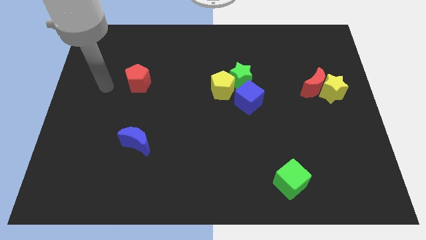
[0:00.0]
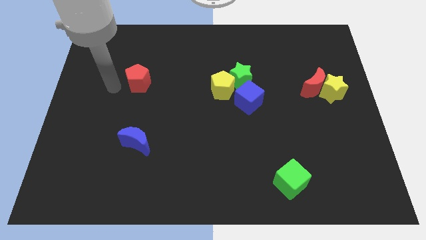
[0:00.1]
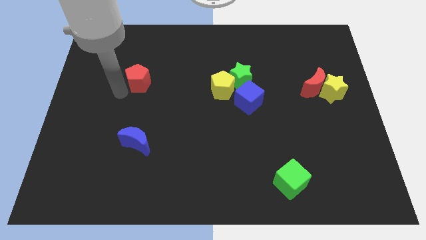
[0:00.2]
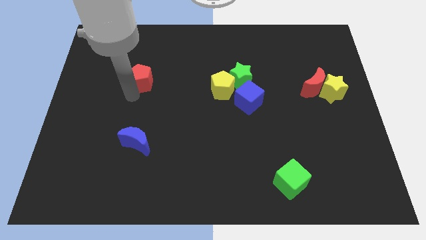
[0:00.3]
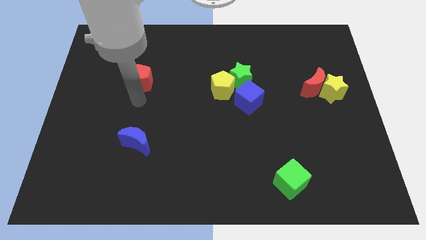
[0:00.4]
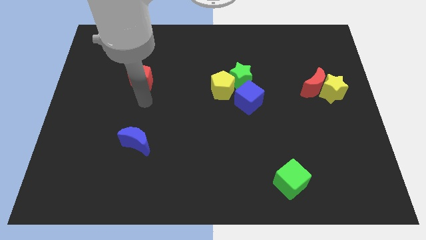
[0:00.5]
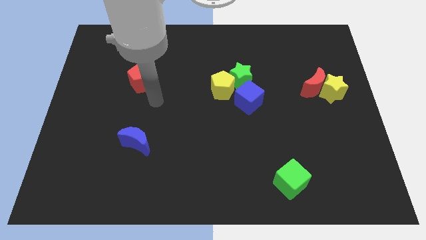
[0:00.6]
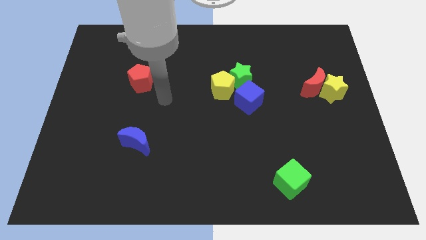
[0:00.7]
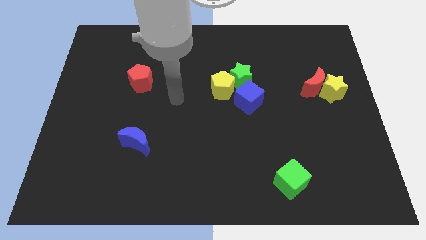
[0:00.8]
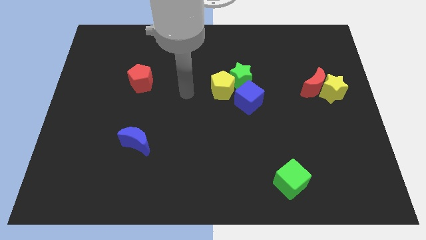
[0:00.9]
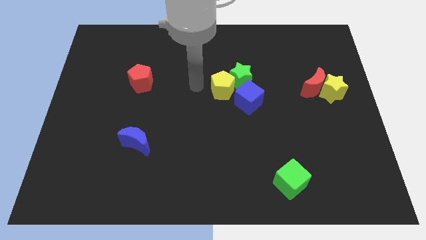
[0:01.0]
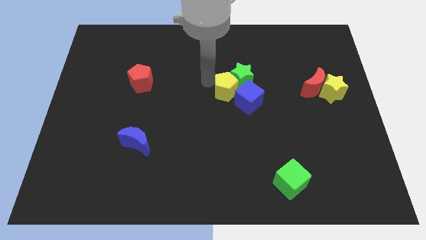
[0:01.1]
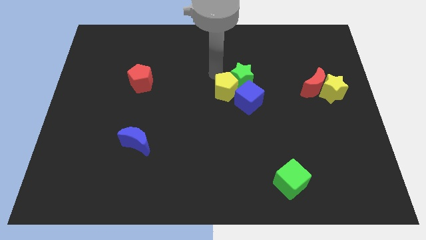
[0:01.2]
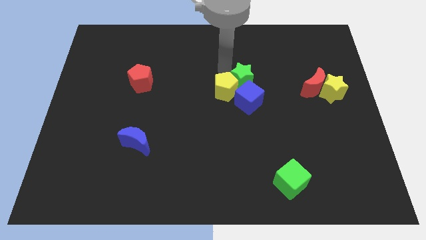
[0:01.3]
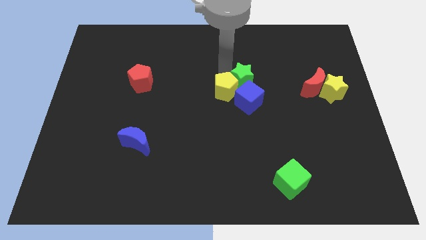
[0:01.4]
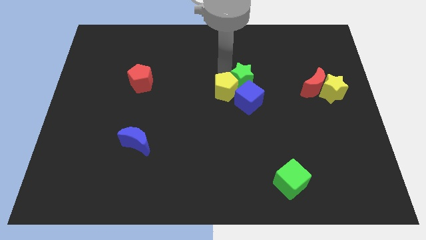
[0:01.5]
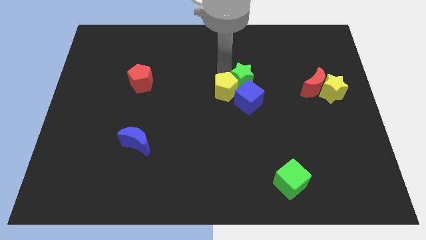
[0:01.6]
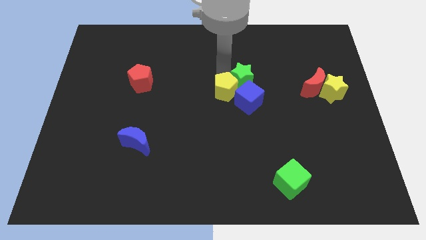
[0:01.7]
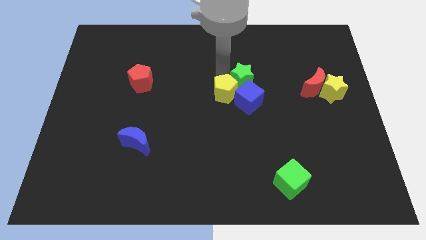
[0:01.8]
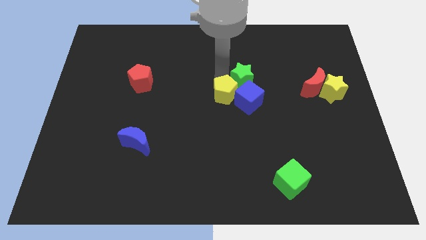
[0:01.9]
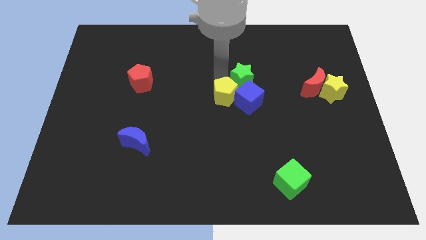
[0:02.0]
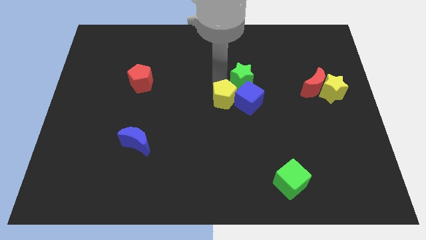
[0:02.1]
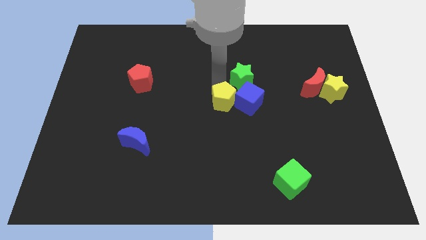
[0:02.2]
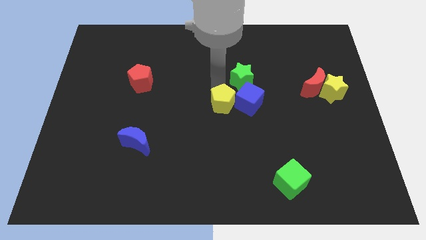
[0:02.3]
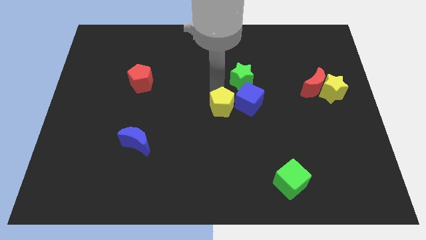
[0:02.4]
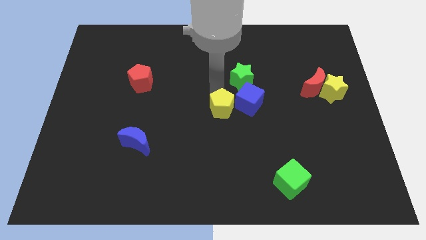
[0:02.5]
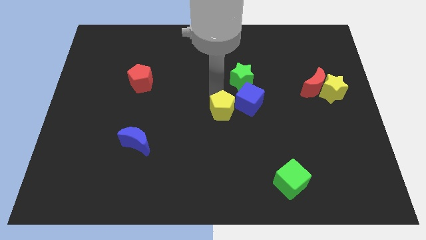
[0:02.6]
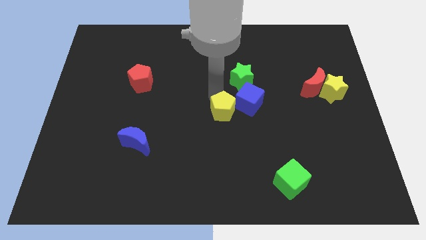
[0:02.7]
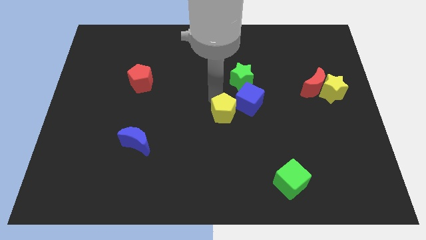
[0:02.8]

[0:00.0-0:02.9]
move the yellow pentagon a little downwards

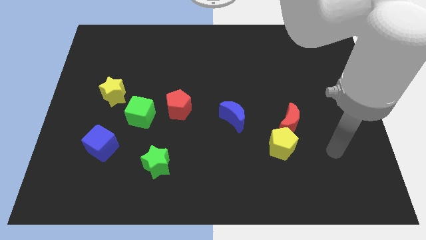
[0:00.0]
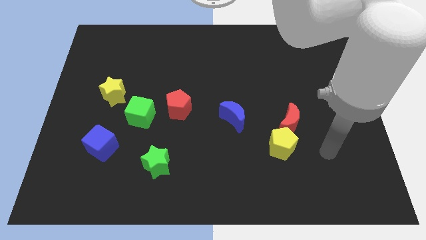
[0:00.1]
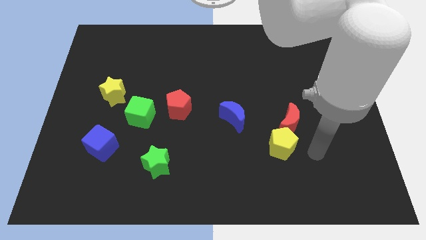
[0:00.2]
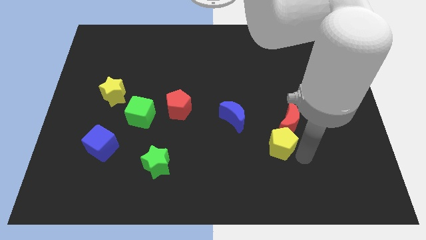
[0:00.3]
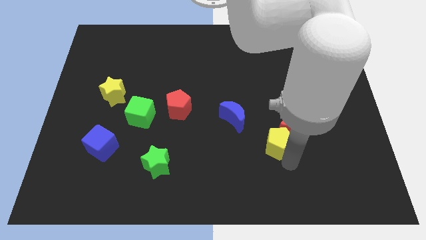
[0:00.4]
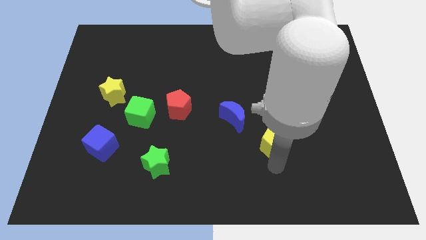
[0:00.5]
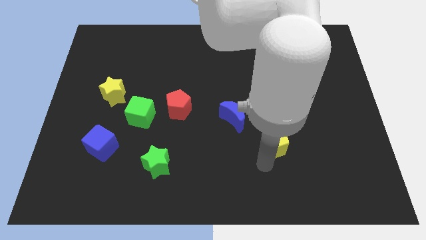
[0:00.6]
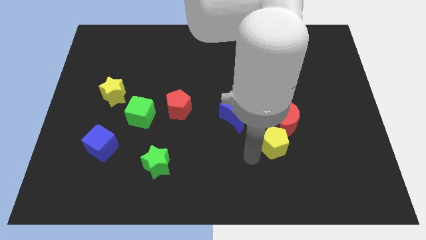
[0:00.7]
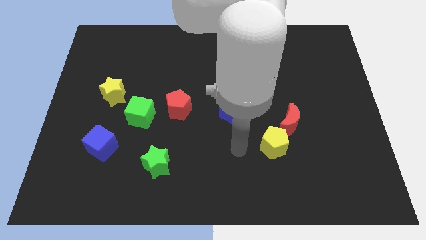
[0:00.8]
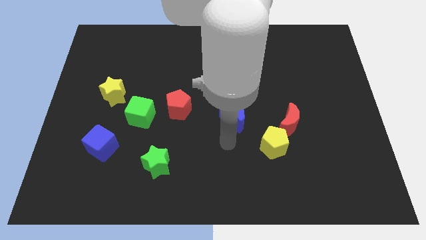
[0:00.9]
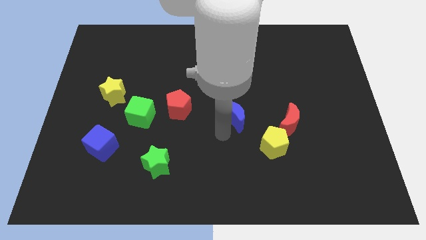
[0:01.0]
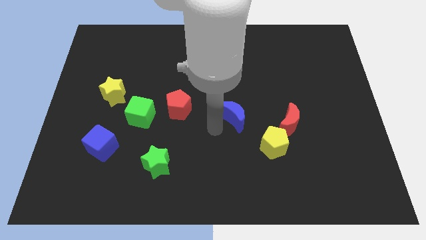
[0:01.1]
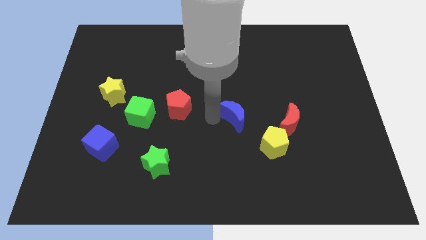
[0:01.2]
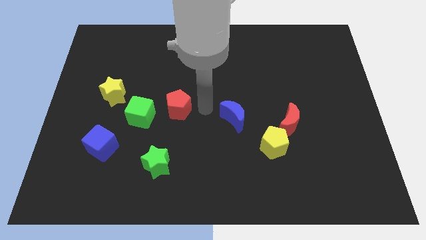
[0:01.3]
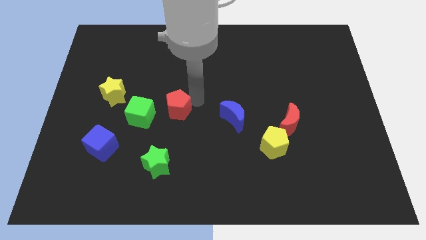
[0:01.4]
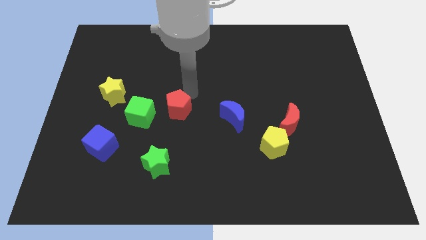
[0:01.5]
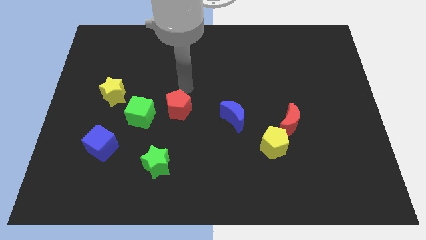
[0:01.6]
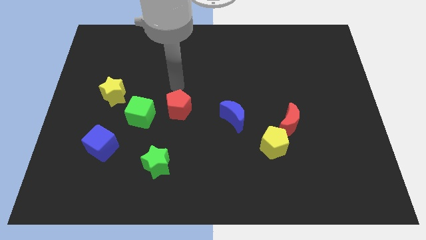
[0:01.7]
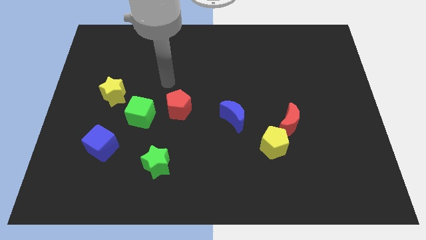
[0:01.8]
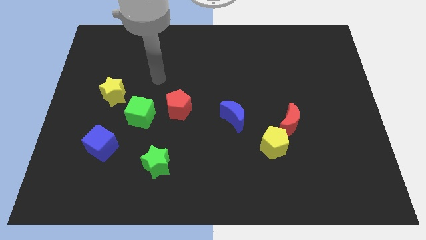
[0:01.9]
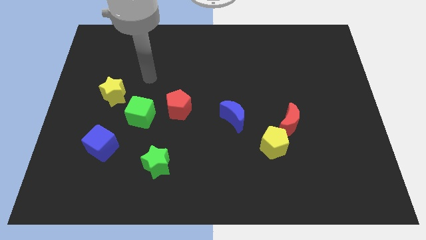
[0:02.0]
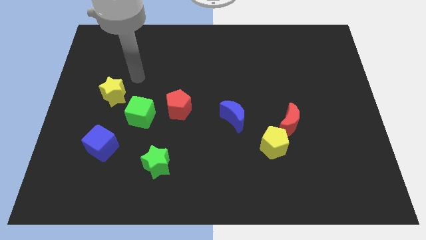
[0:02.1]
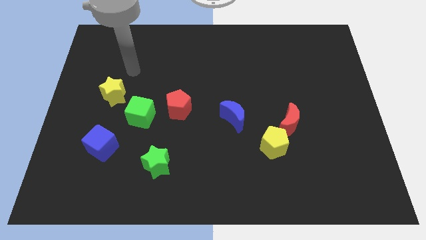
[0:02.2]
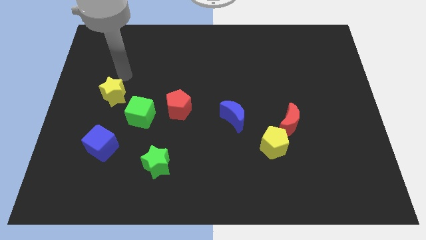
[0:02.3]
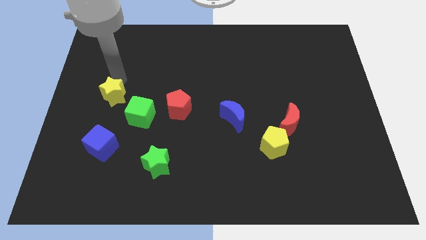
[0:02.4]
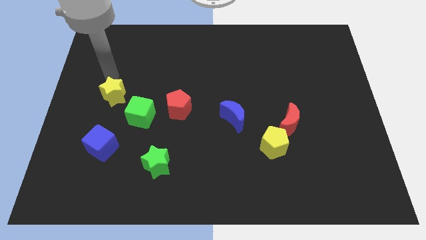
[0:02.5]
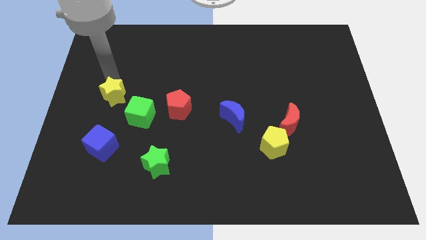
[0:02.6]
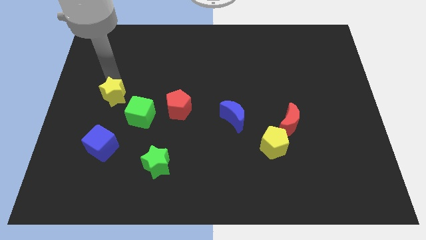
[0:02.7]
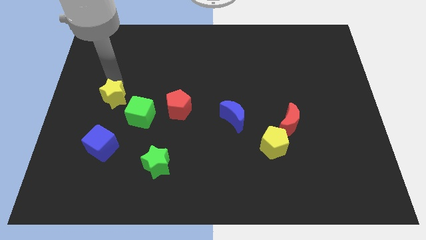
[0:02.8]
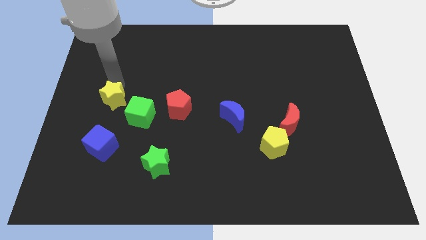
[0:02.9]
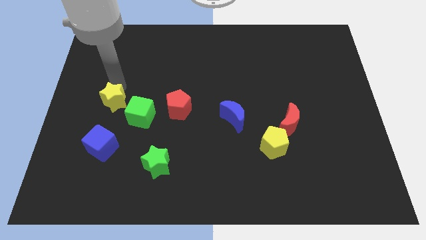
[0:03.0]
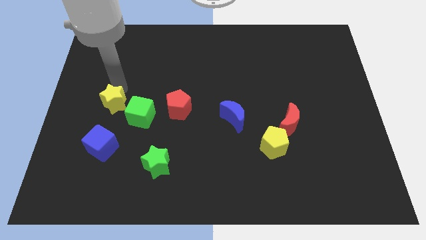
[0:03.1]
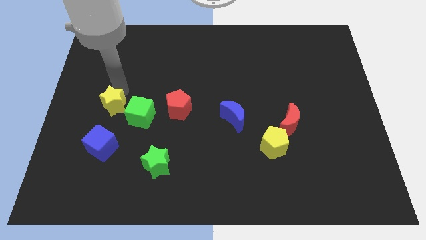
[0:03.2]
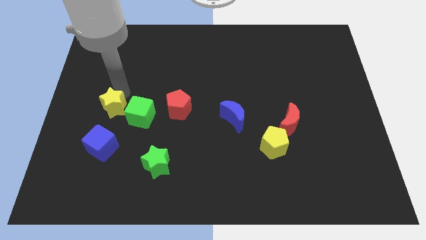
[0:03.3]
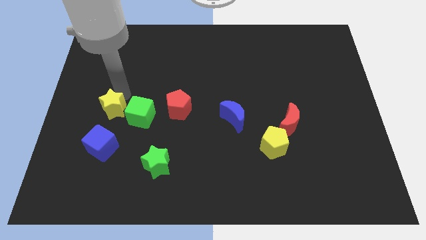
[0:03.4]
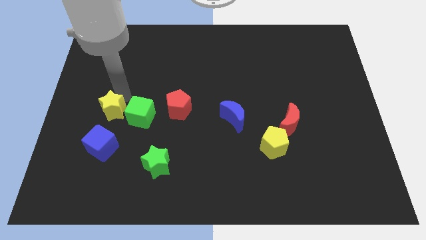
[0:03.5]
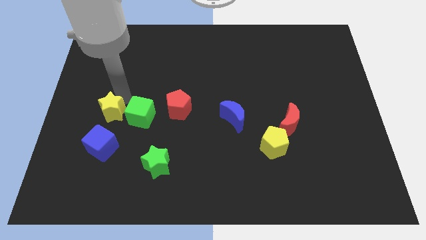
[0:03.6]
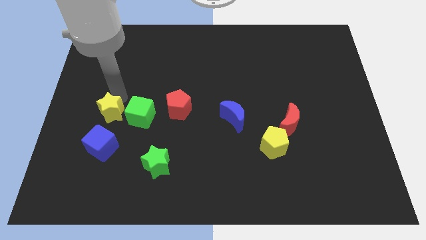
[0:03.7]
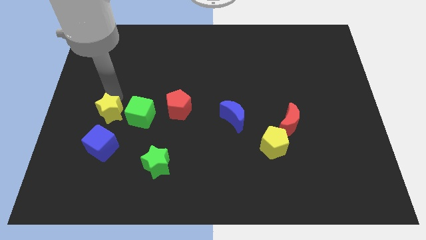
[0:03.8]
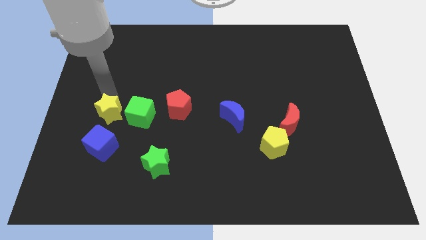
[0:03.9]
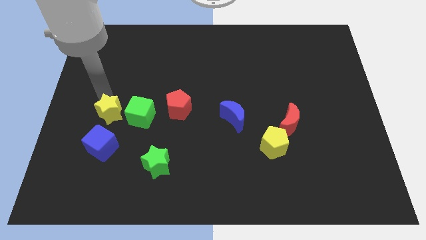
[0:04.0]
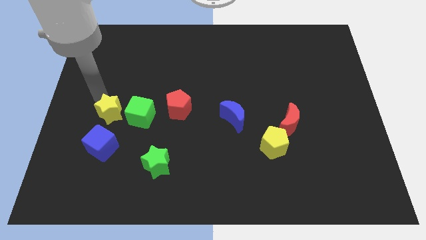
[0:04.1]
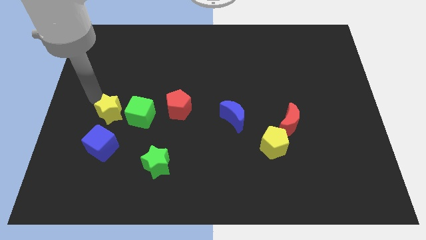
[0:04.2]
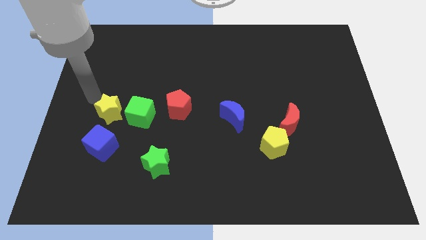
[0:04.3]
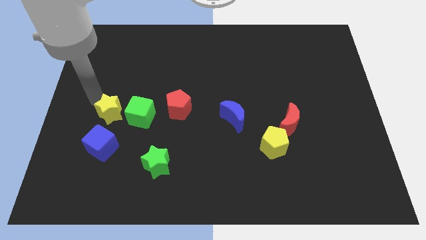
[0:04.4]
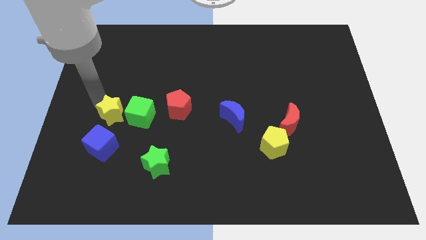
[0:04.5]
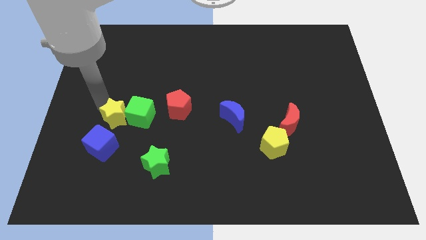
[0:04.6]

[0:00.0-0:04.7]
move the yellow star a bit down

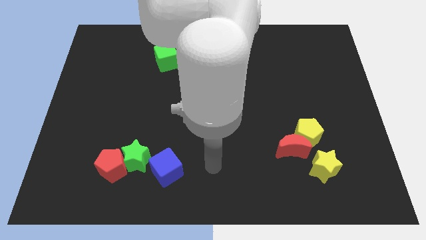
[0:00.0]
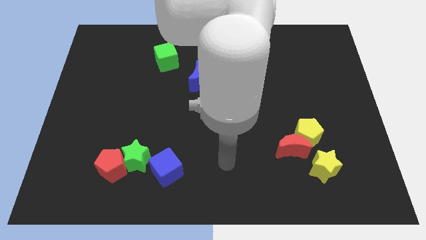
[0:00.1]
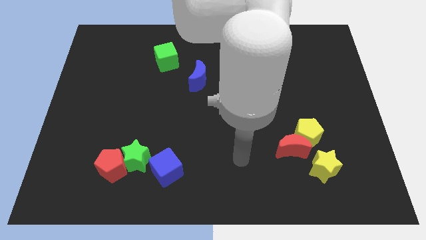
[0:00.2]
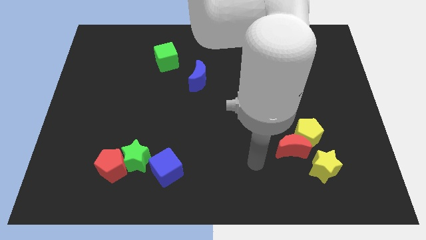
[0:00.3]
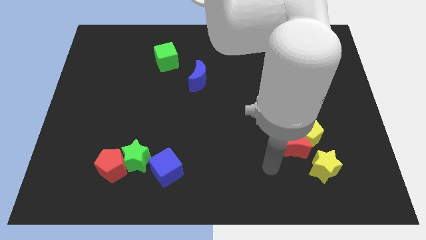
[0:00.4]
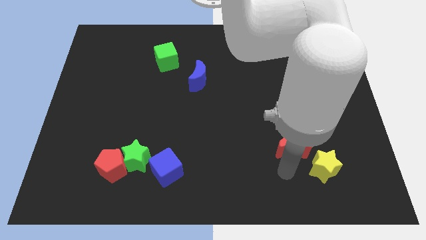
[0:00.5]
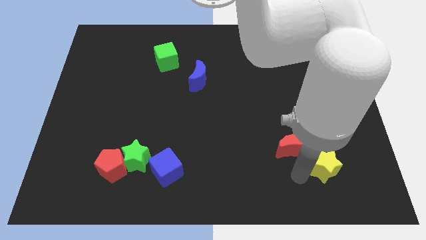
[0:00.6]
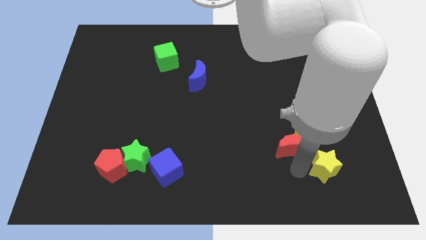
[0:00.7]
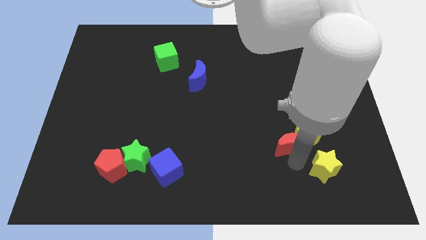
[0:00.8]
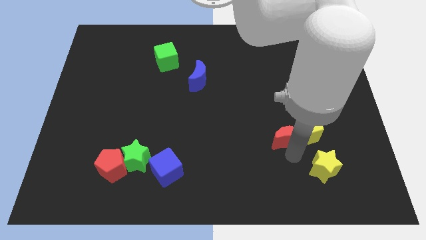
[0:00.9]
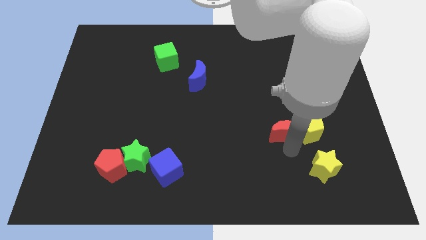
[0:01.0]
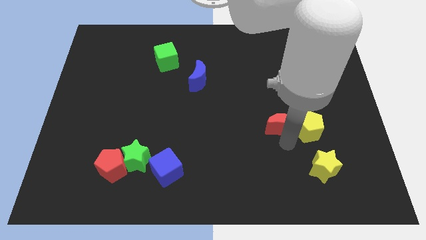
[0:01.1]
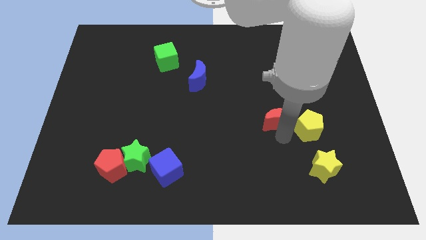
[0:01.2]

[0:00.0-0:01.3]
push the red moon a little upwards
